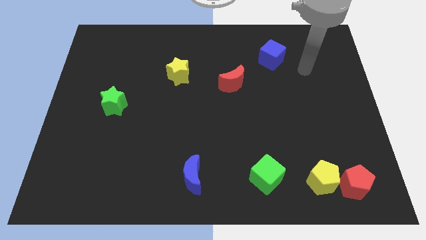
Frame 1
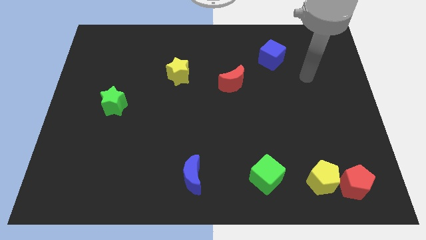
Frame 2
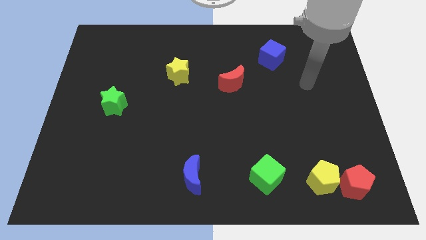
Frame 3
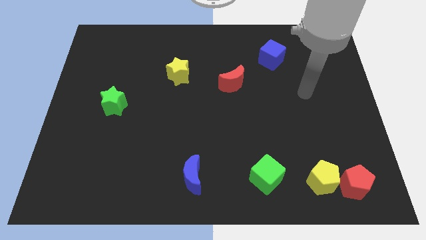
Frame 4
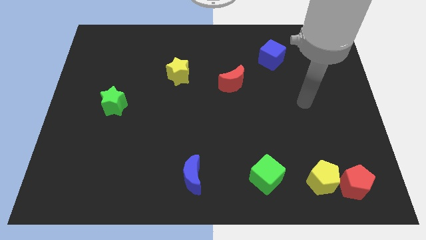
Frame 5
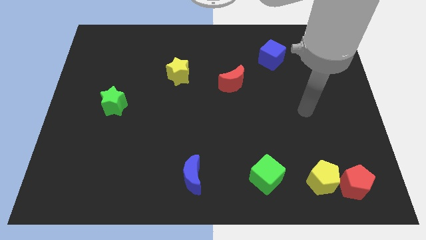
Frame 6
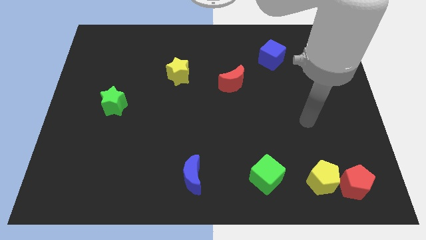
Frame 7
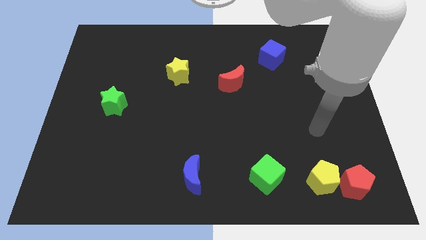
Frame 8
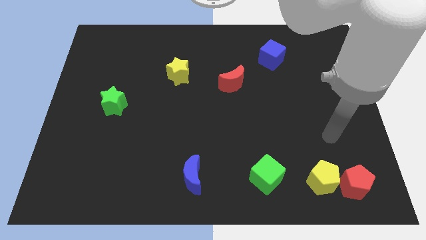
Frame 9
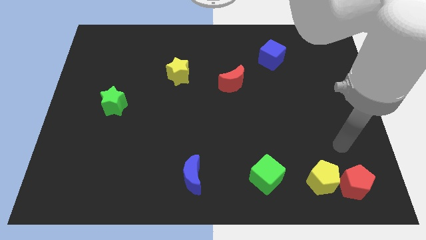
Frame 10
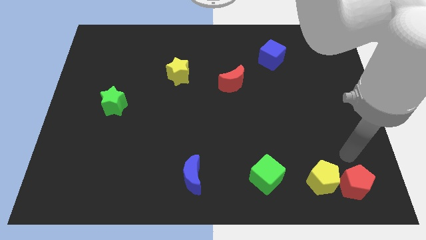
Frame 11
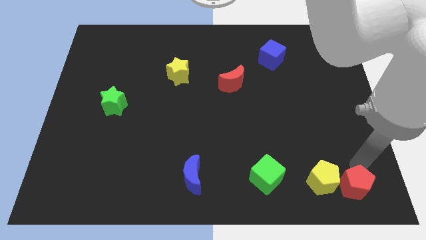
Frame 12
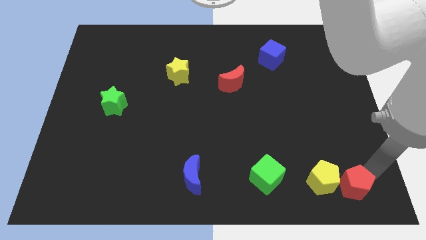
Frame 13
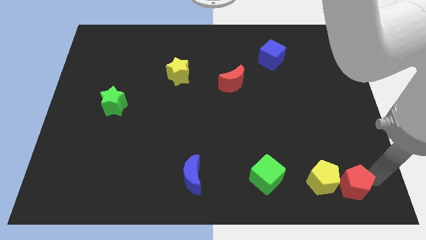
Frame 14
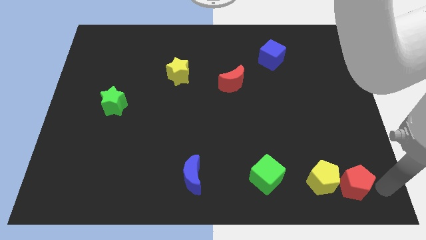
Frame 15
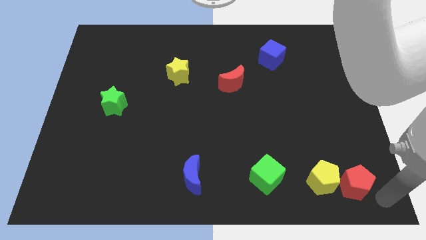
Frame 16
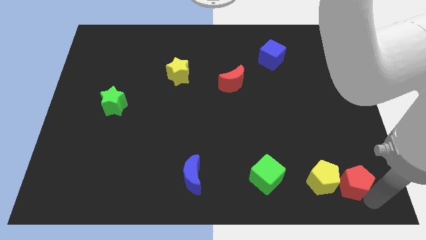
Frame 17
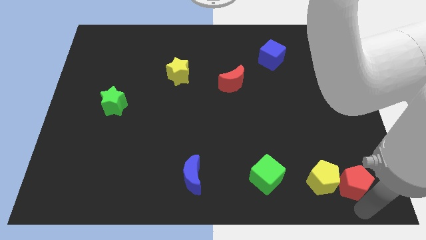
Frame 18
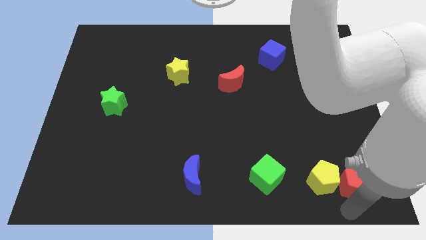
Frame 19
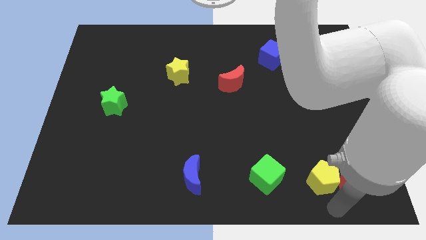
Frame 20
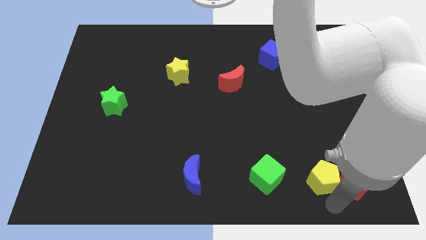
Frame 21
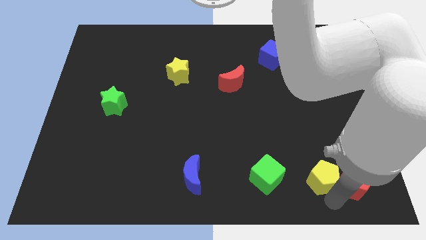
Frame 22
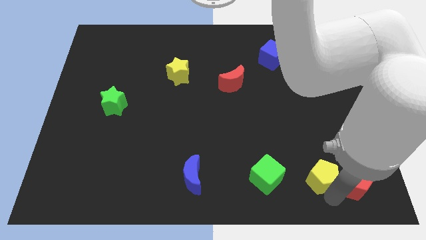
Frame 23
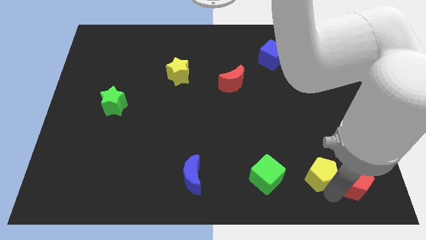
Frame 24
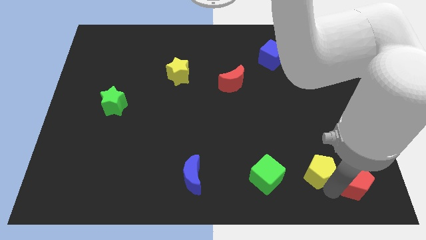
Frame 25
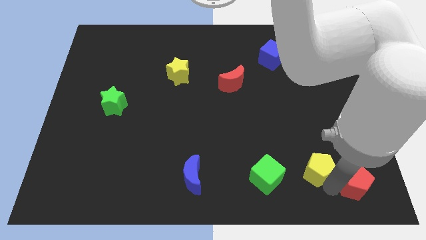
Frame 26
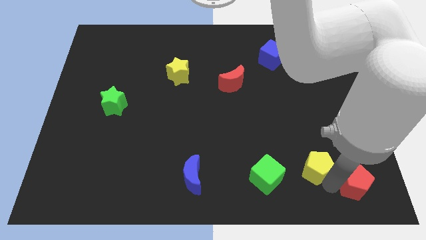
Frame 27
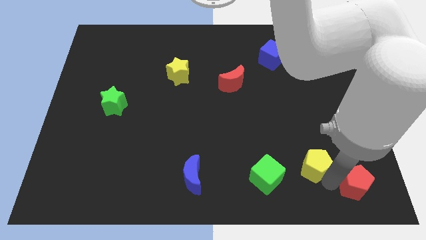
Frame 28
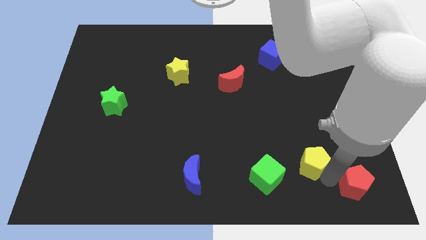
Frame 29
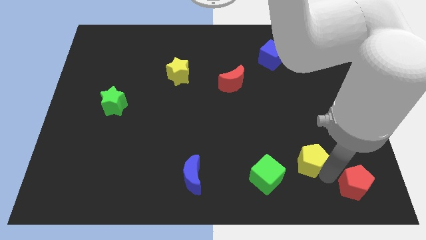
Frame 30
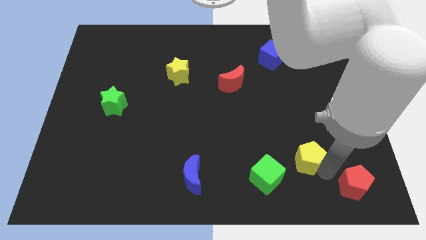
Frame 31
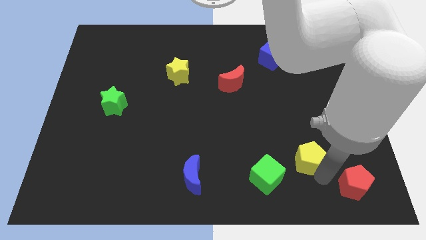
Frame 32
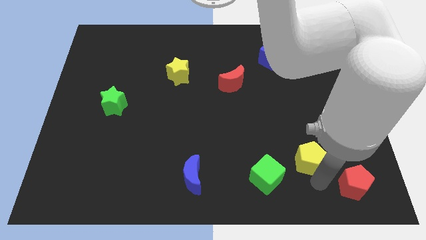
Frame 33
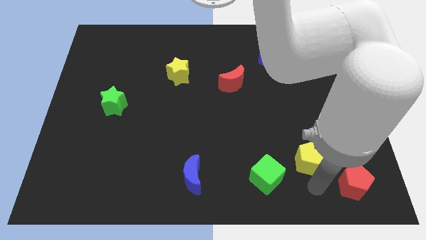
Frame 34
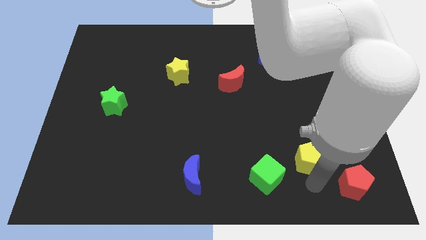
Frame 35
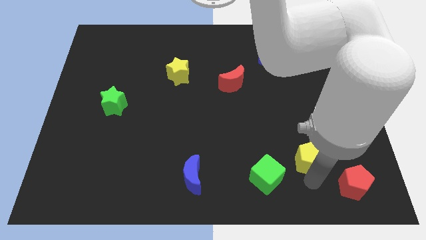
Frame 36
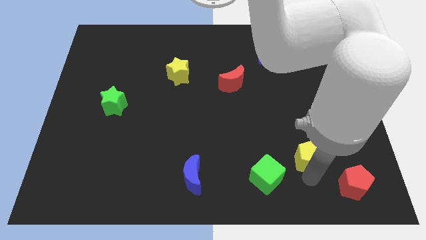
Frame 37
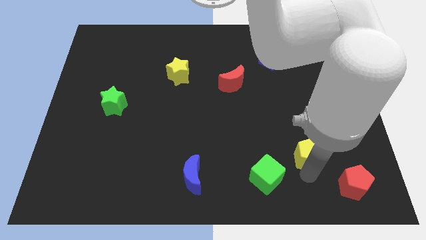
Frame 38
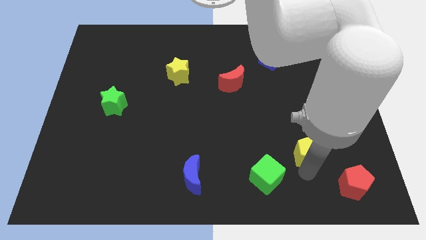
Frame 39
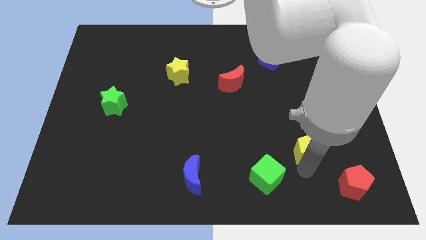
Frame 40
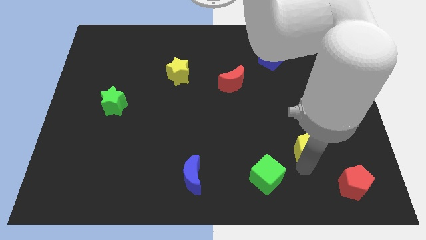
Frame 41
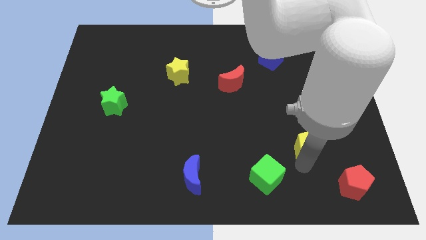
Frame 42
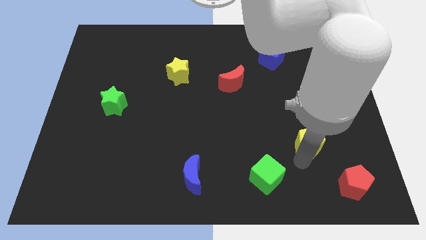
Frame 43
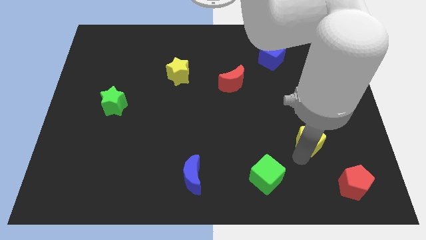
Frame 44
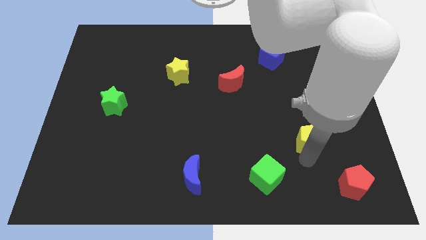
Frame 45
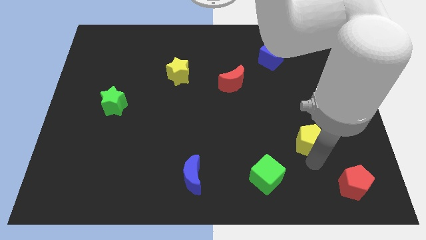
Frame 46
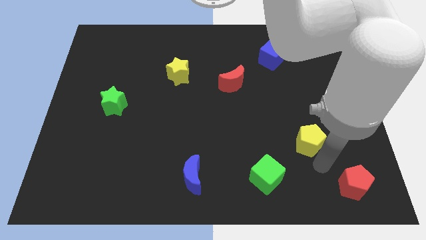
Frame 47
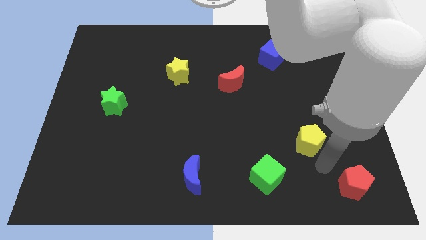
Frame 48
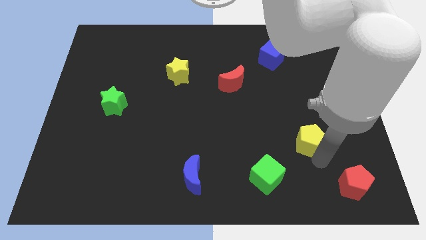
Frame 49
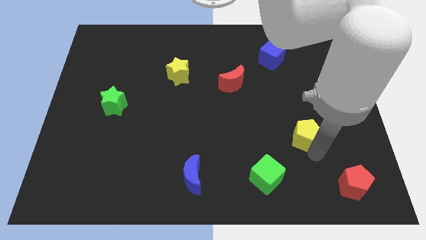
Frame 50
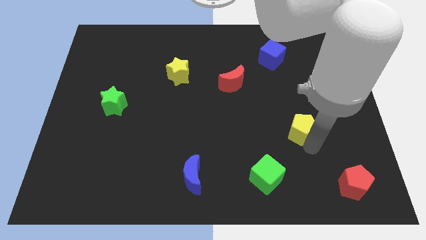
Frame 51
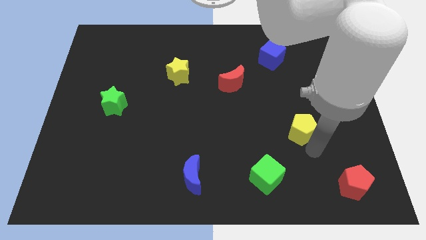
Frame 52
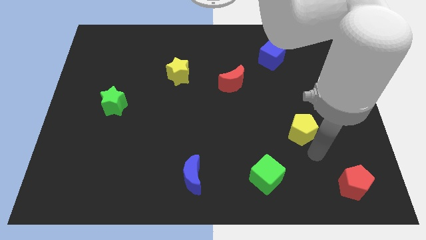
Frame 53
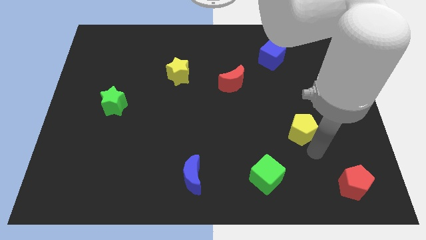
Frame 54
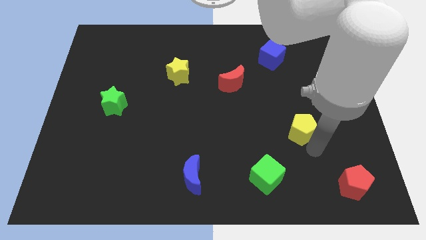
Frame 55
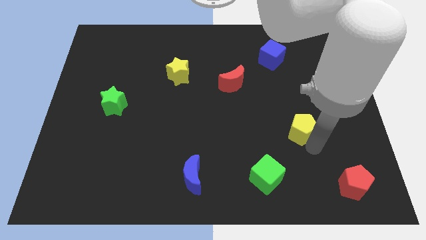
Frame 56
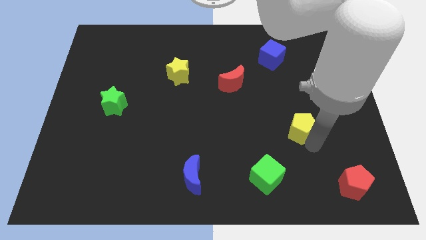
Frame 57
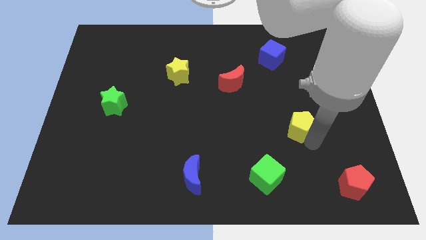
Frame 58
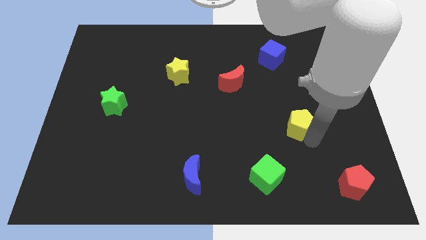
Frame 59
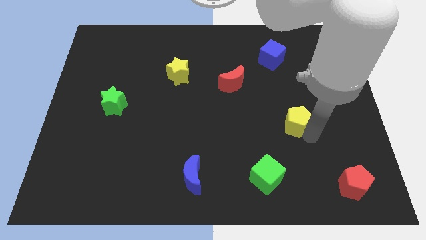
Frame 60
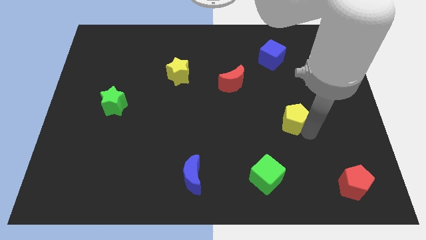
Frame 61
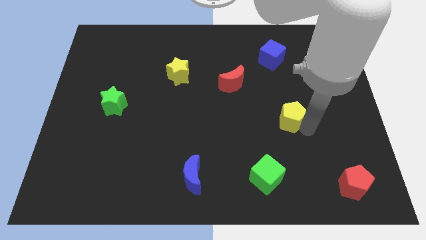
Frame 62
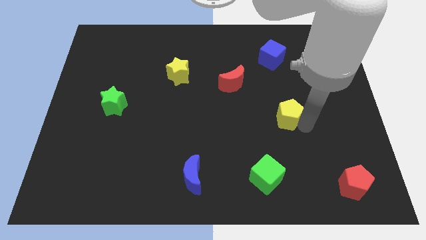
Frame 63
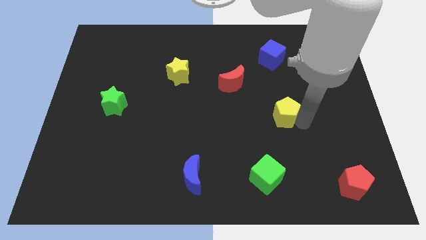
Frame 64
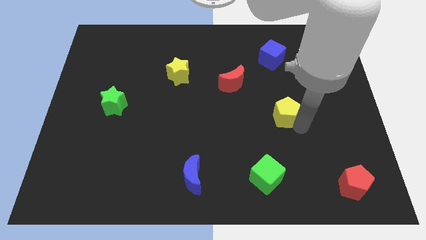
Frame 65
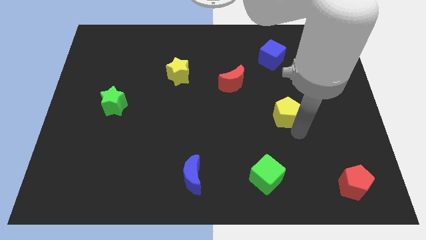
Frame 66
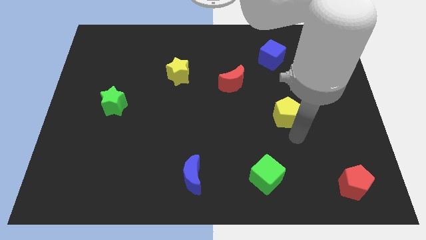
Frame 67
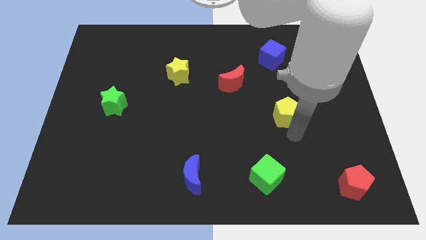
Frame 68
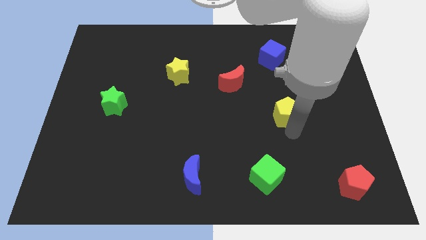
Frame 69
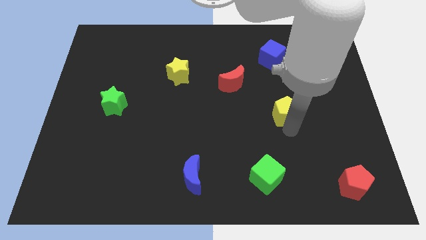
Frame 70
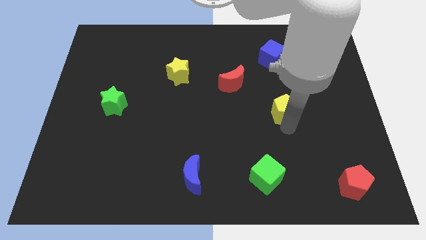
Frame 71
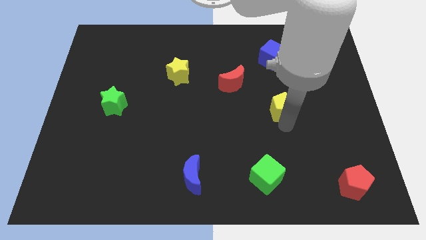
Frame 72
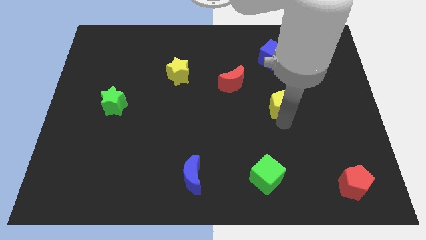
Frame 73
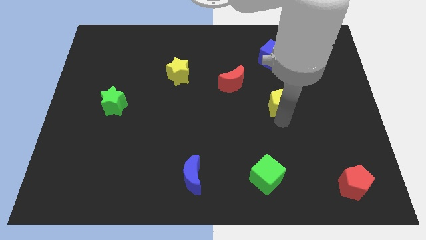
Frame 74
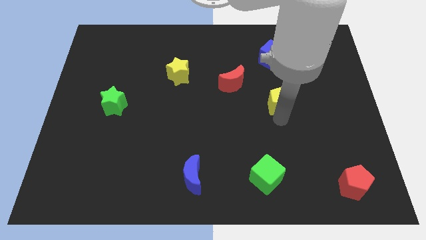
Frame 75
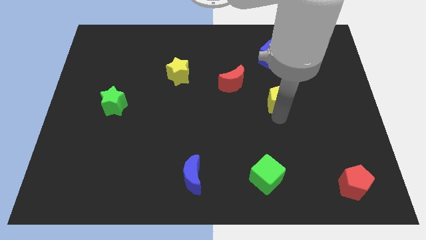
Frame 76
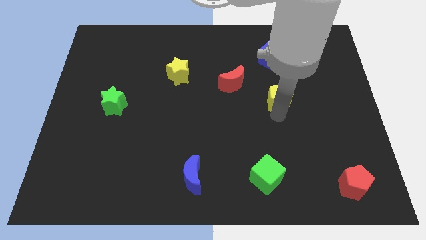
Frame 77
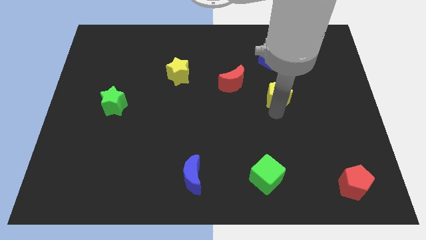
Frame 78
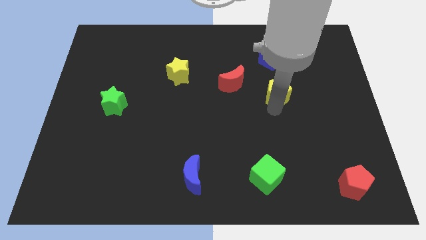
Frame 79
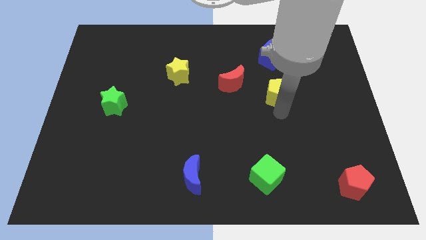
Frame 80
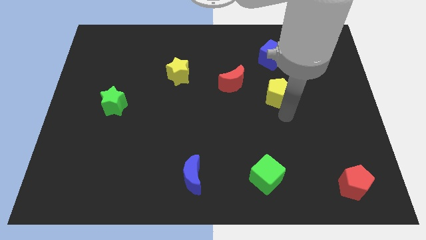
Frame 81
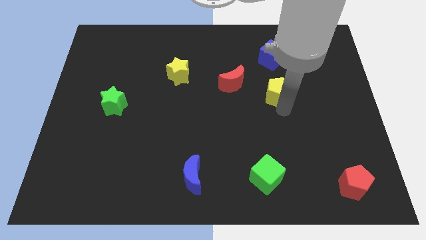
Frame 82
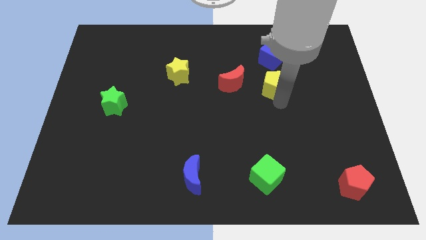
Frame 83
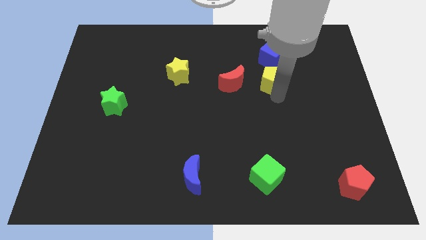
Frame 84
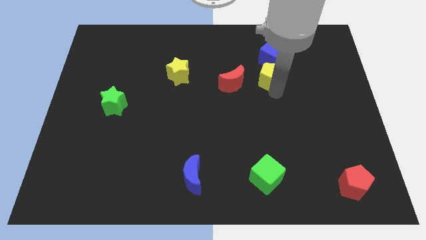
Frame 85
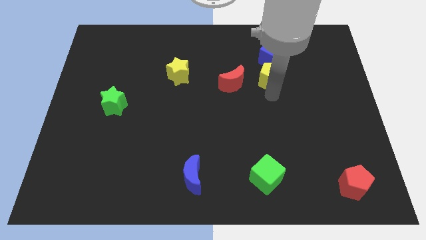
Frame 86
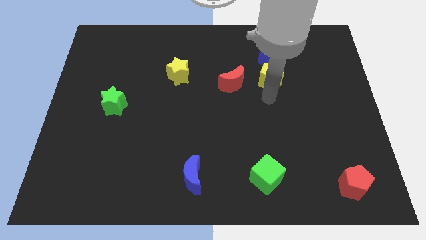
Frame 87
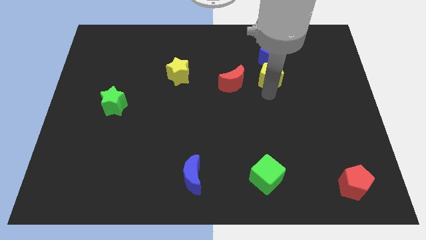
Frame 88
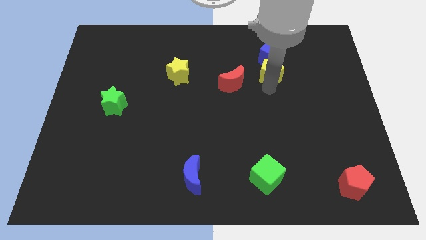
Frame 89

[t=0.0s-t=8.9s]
slide the yellow pentagon towards the blue cube
